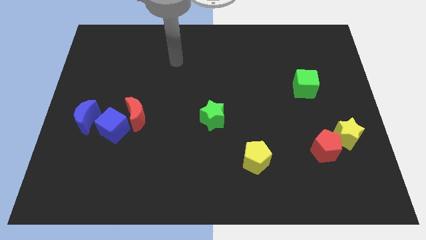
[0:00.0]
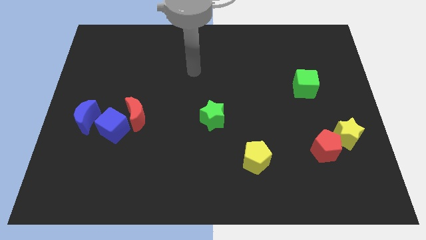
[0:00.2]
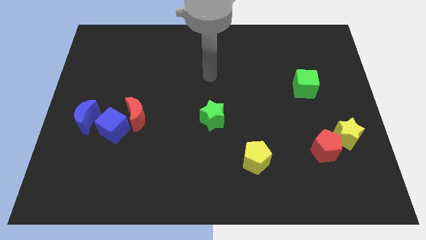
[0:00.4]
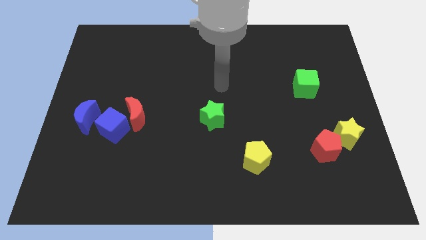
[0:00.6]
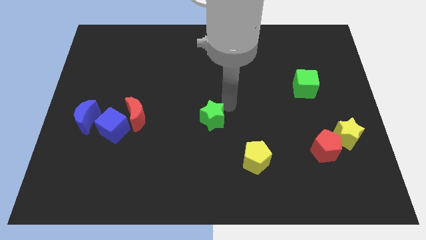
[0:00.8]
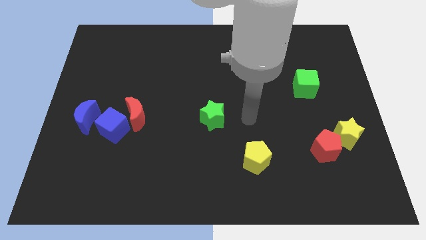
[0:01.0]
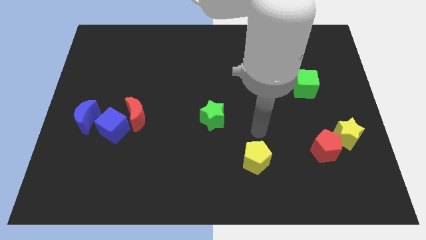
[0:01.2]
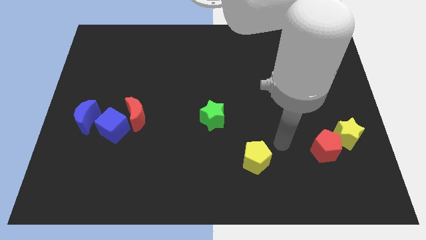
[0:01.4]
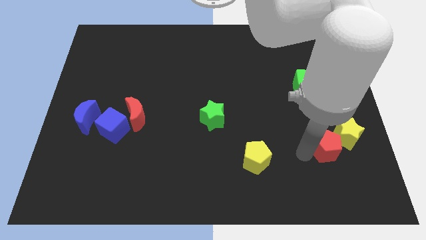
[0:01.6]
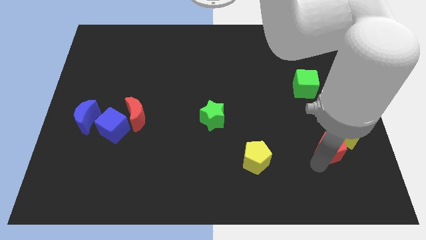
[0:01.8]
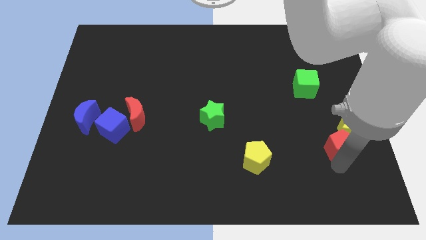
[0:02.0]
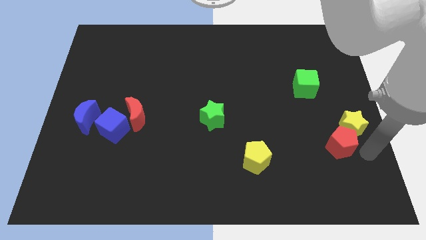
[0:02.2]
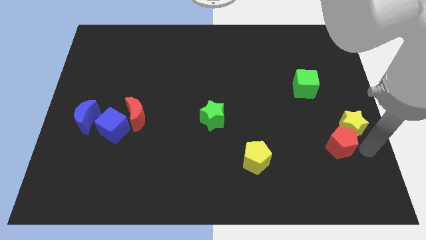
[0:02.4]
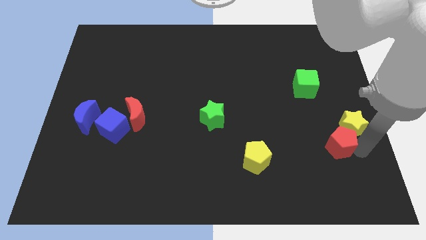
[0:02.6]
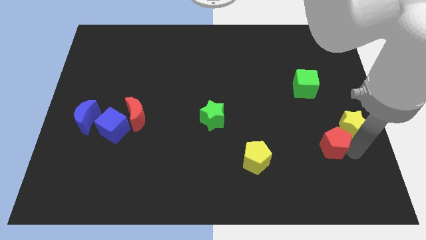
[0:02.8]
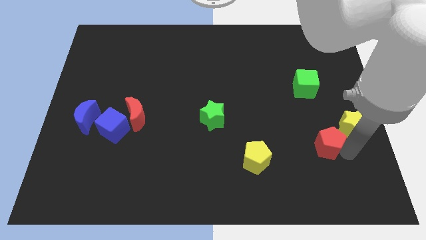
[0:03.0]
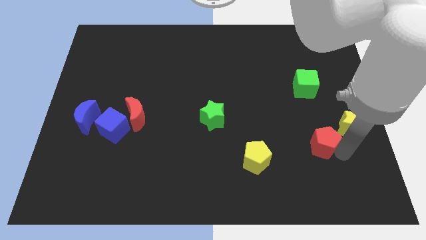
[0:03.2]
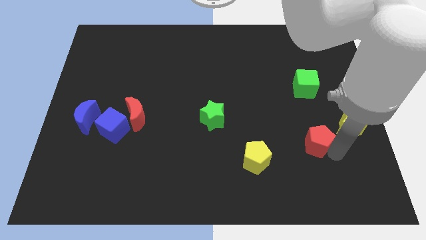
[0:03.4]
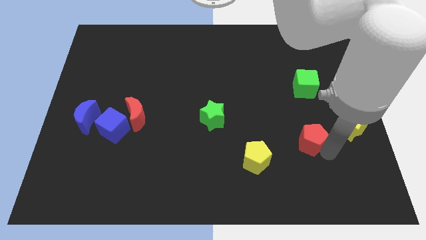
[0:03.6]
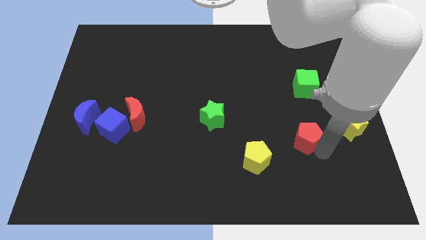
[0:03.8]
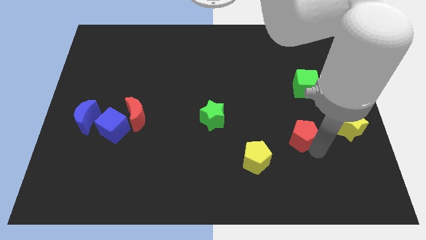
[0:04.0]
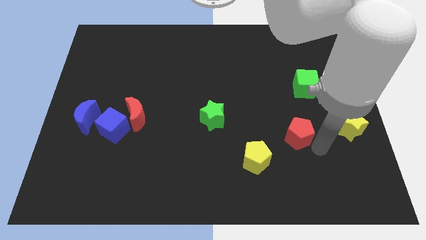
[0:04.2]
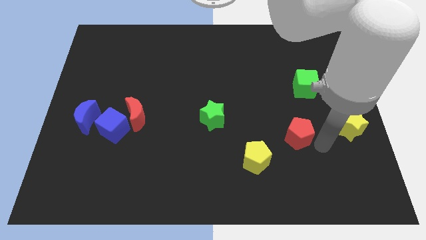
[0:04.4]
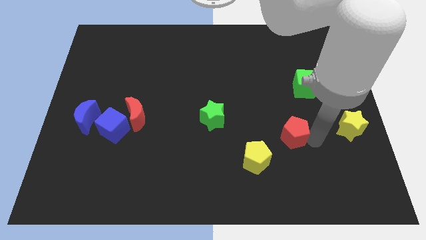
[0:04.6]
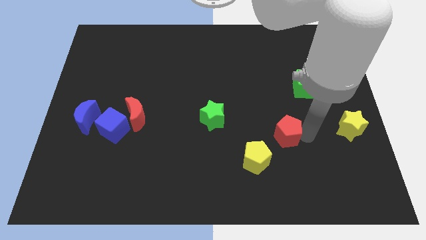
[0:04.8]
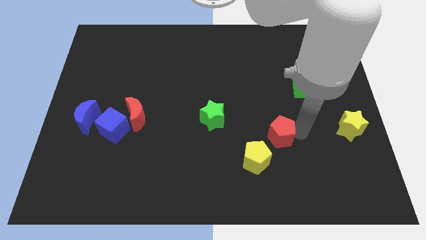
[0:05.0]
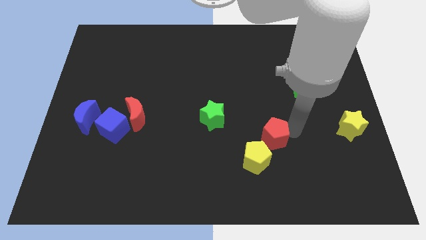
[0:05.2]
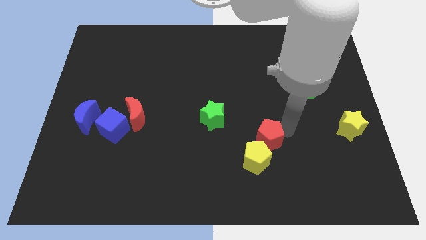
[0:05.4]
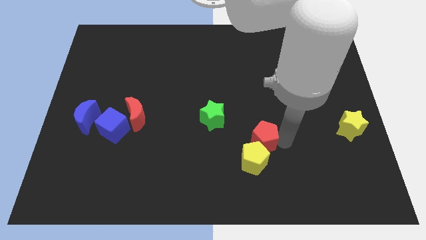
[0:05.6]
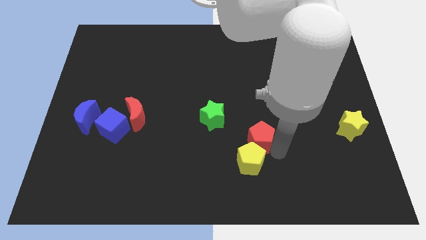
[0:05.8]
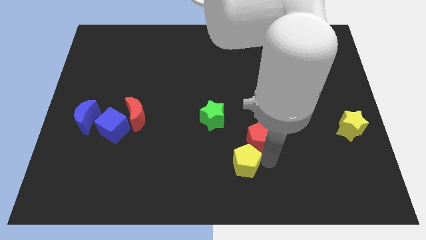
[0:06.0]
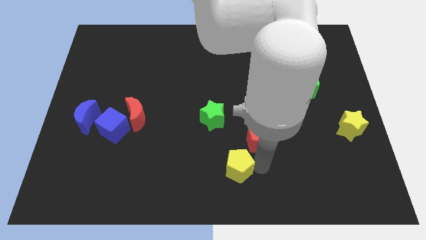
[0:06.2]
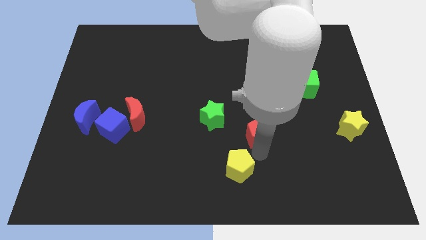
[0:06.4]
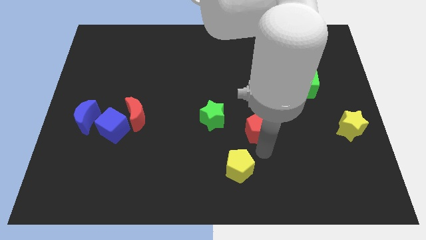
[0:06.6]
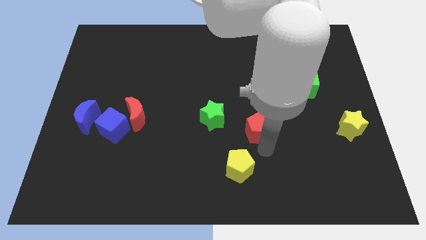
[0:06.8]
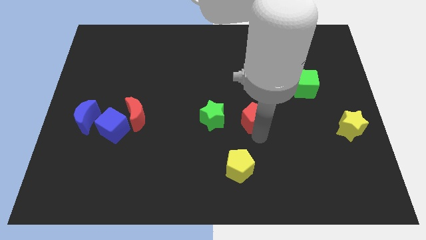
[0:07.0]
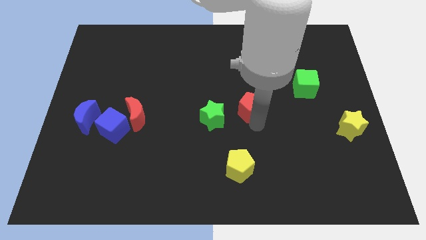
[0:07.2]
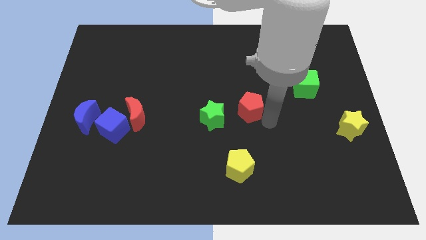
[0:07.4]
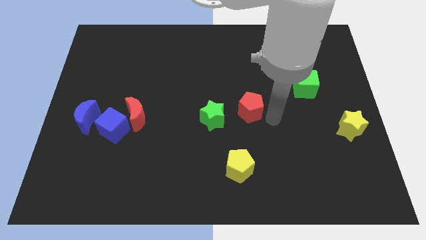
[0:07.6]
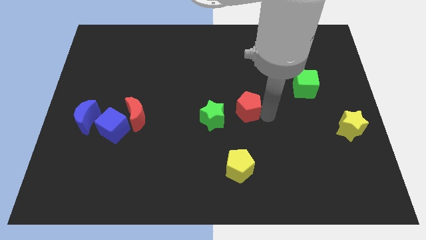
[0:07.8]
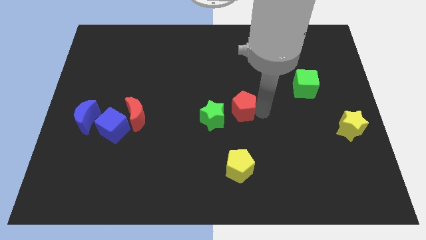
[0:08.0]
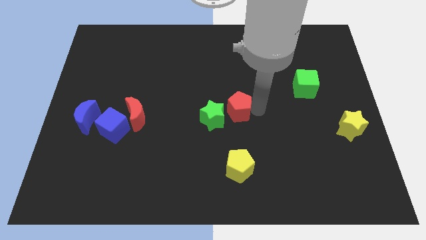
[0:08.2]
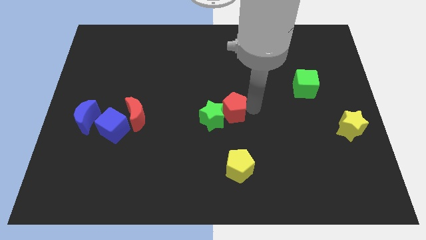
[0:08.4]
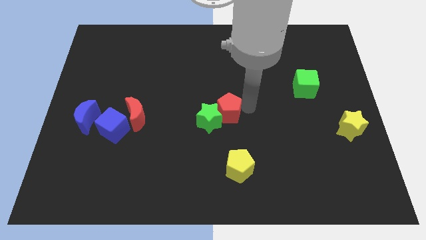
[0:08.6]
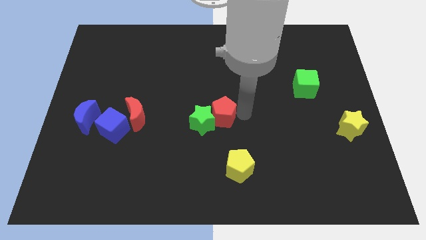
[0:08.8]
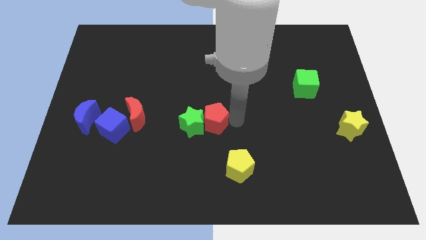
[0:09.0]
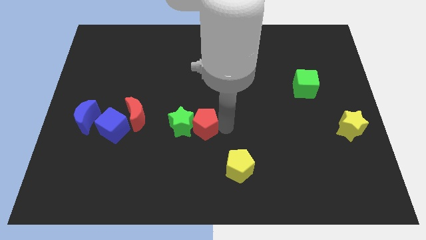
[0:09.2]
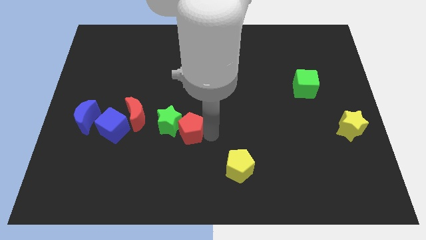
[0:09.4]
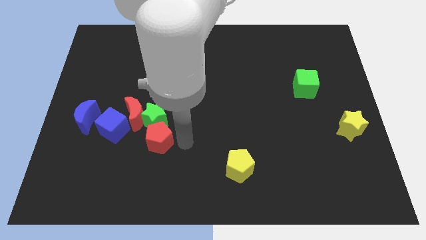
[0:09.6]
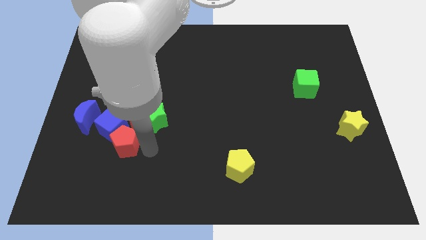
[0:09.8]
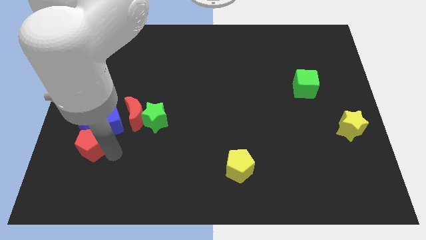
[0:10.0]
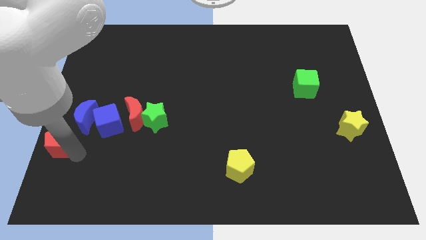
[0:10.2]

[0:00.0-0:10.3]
slide the red pentagon to the left side of the board

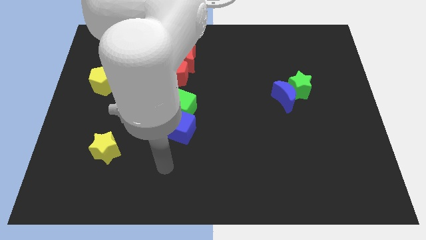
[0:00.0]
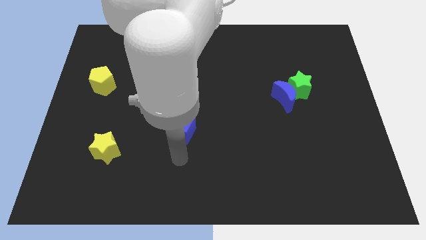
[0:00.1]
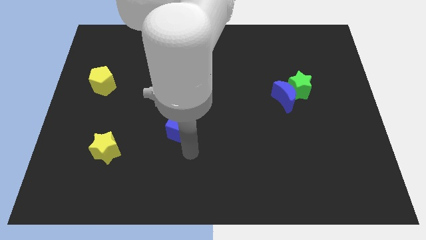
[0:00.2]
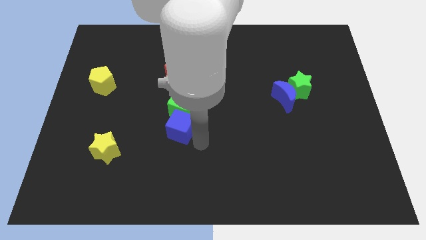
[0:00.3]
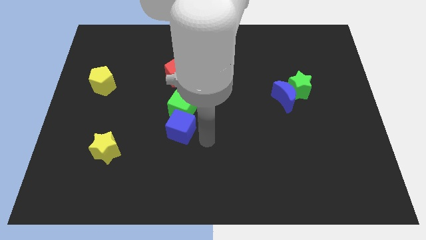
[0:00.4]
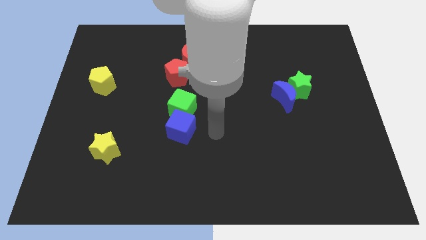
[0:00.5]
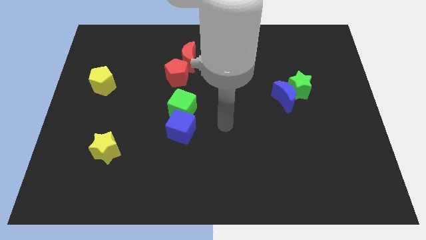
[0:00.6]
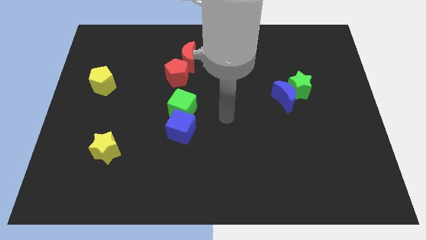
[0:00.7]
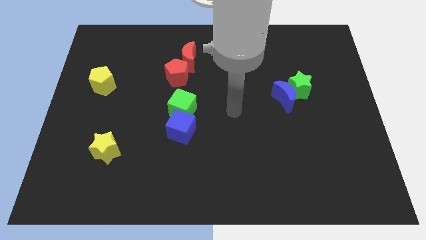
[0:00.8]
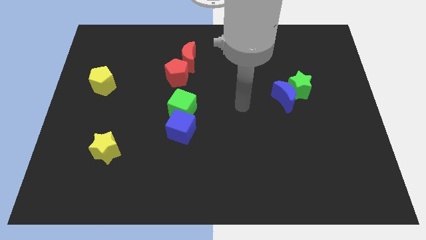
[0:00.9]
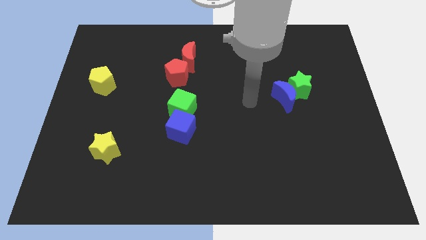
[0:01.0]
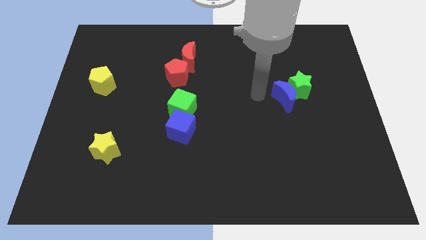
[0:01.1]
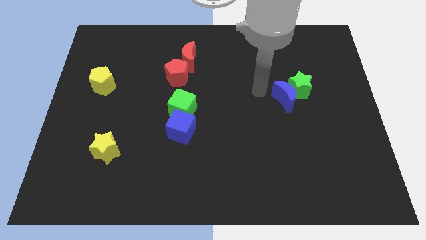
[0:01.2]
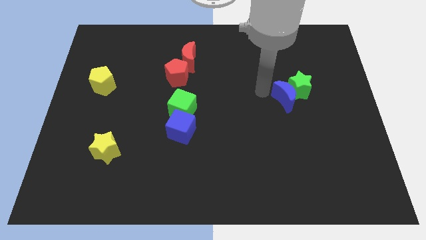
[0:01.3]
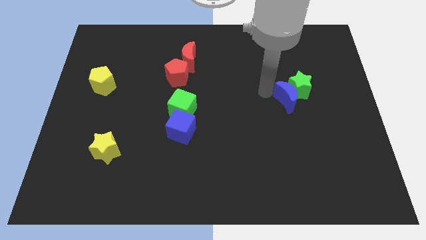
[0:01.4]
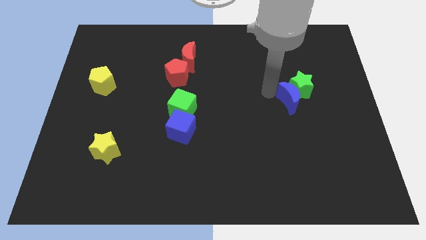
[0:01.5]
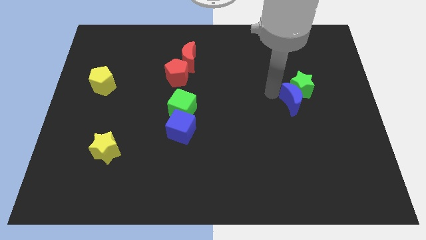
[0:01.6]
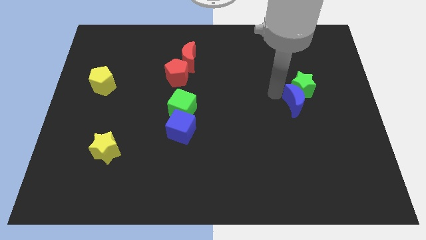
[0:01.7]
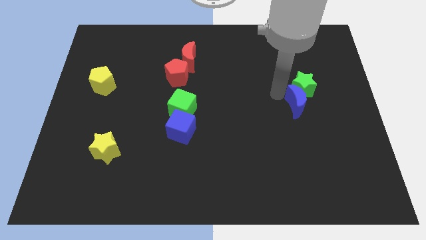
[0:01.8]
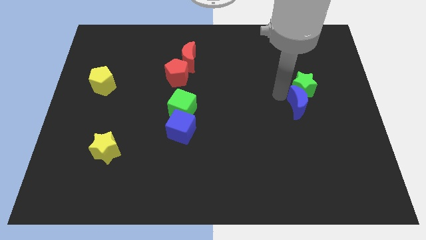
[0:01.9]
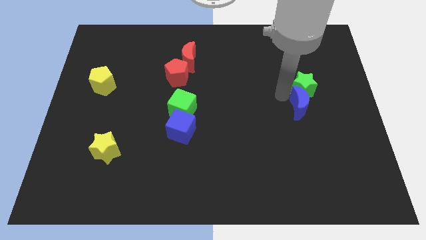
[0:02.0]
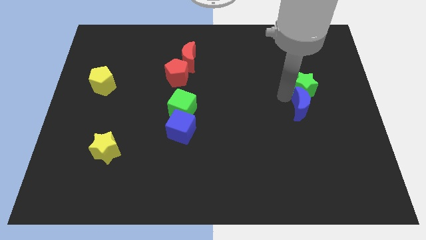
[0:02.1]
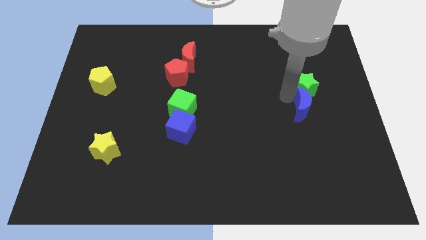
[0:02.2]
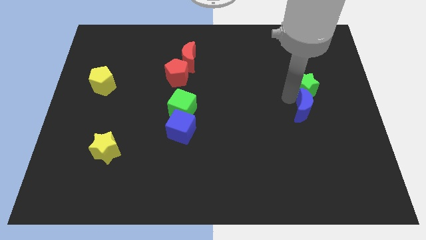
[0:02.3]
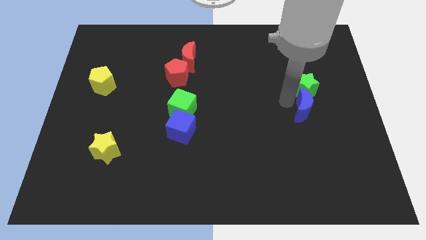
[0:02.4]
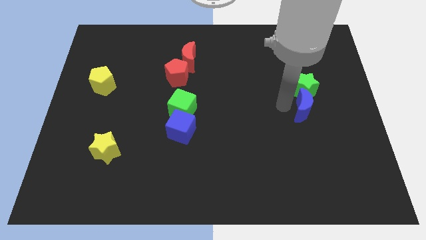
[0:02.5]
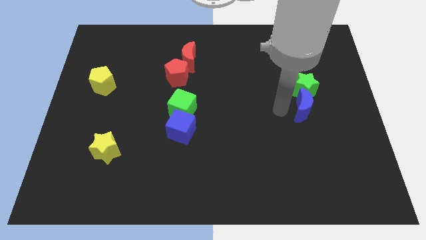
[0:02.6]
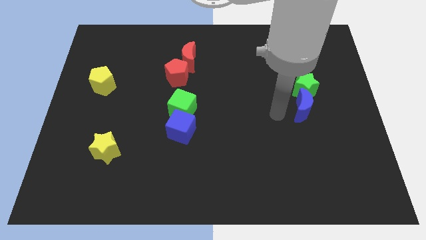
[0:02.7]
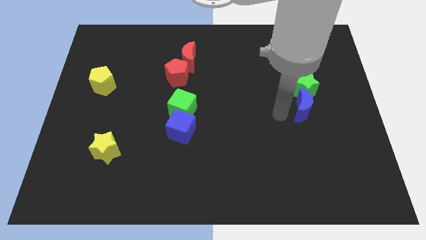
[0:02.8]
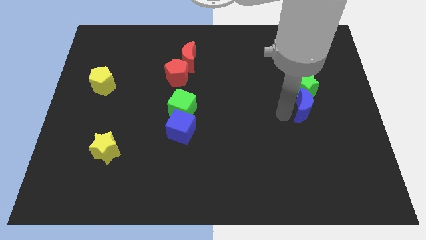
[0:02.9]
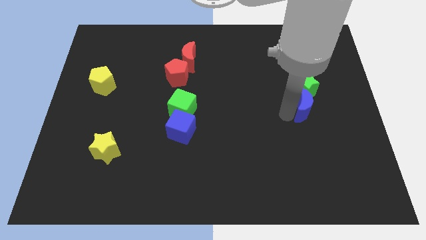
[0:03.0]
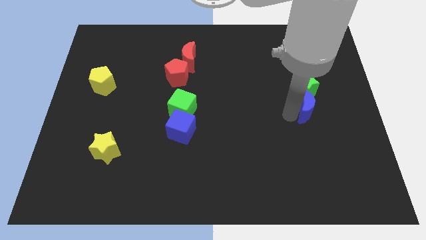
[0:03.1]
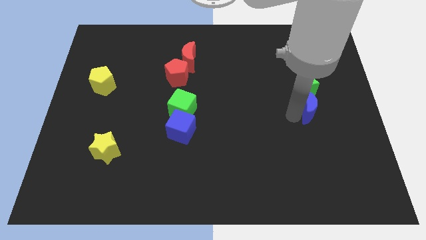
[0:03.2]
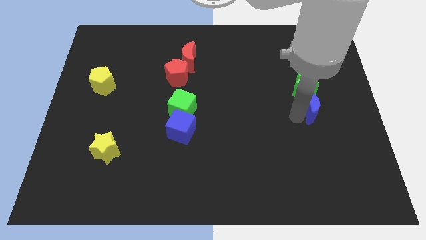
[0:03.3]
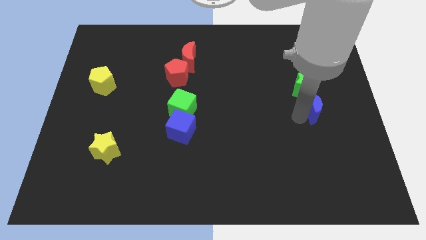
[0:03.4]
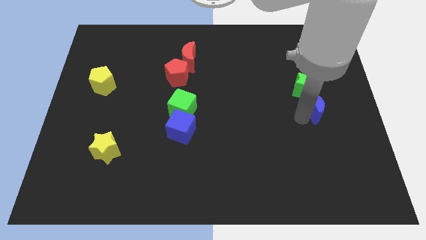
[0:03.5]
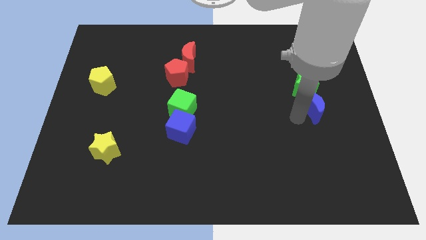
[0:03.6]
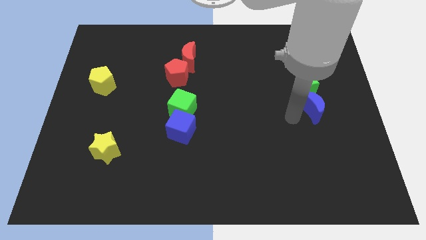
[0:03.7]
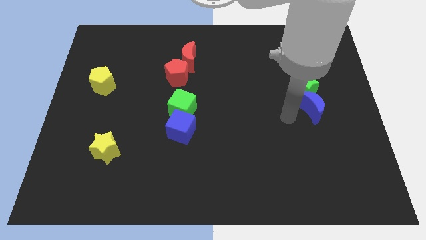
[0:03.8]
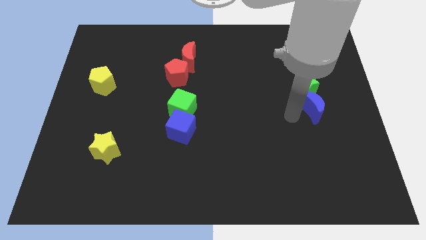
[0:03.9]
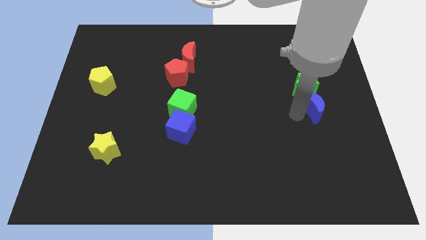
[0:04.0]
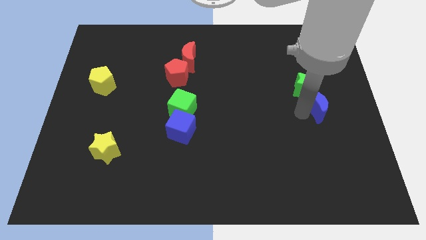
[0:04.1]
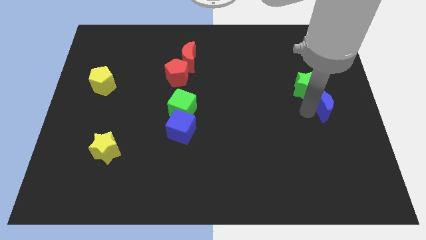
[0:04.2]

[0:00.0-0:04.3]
push the blue moon to the right side
